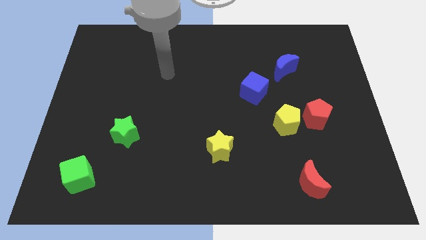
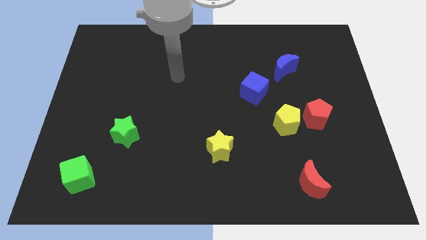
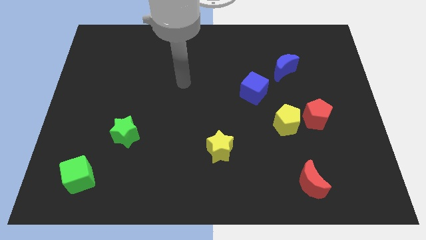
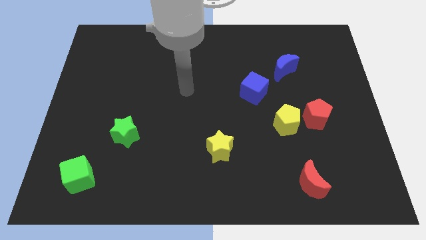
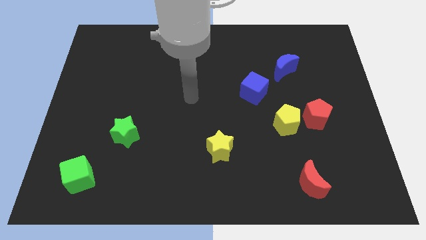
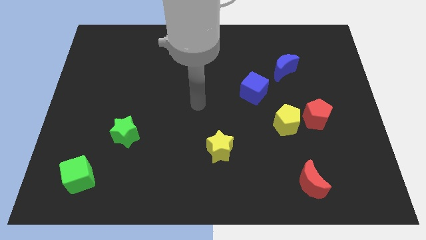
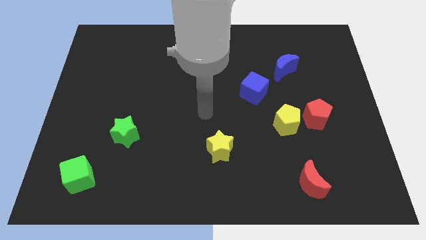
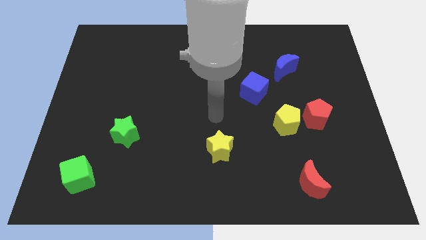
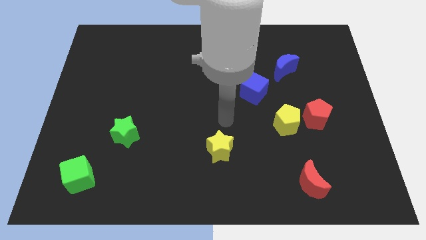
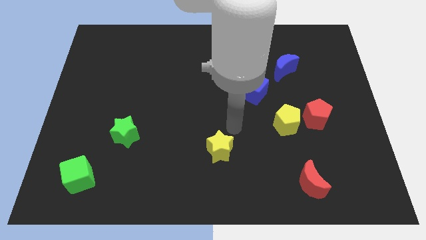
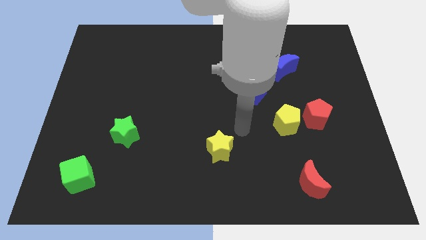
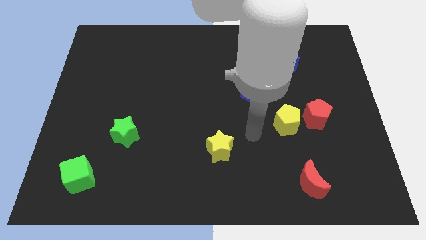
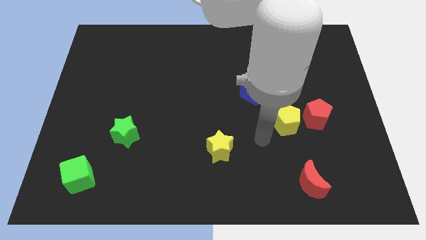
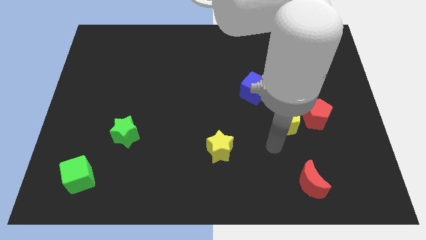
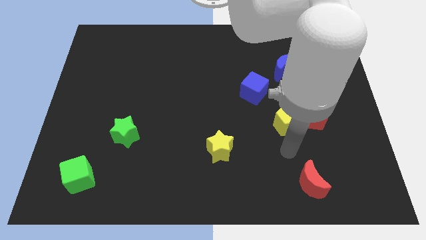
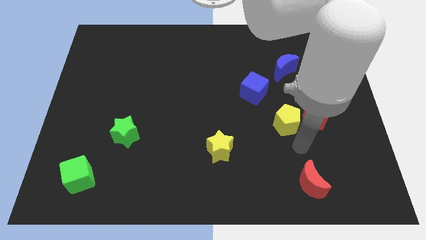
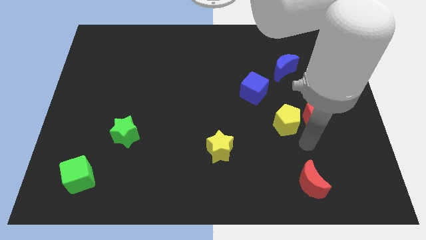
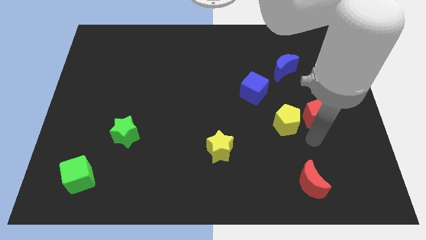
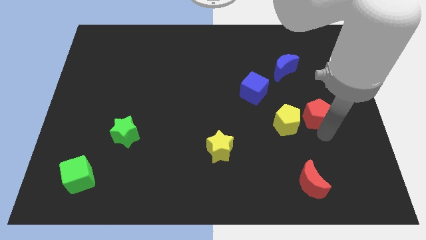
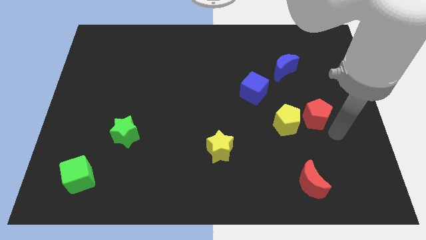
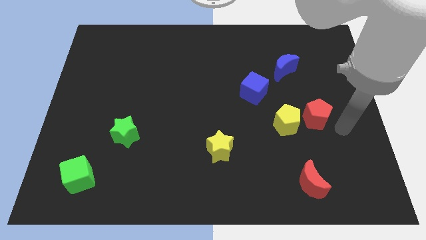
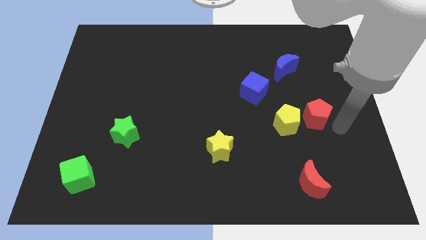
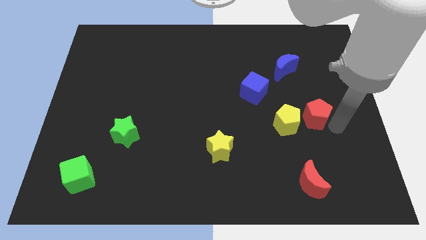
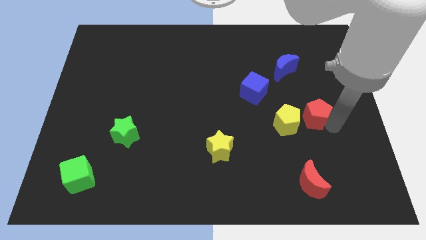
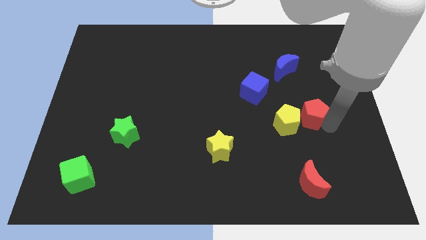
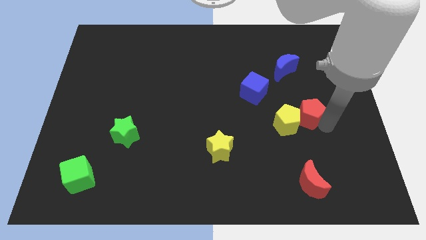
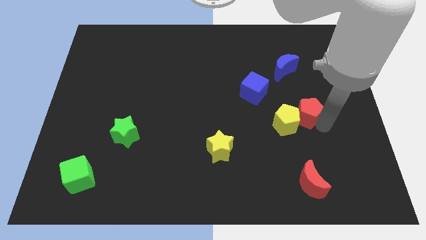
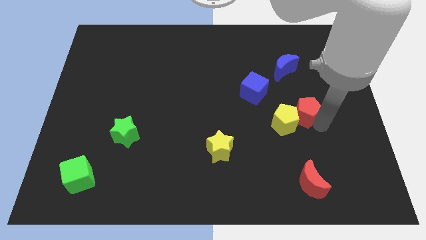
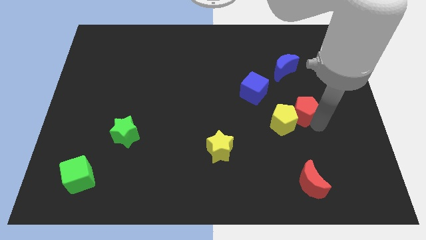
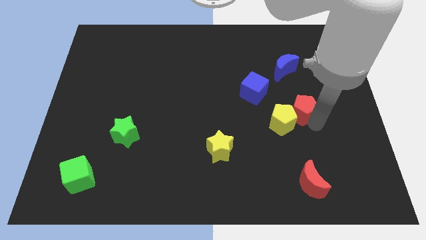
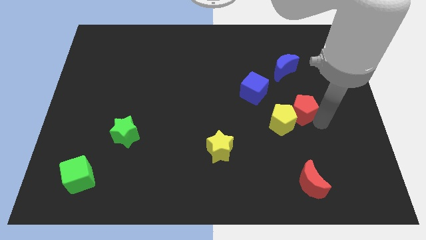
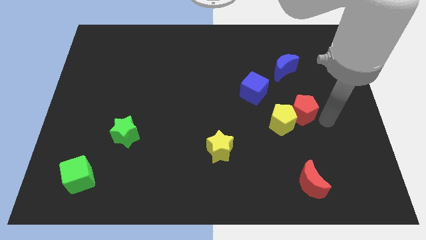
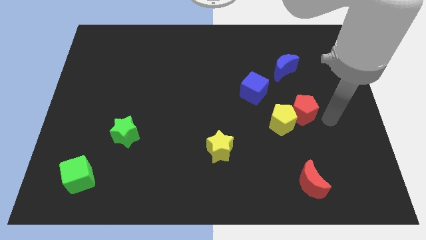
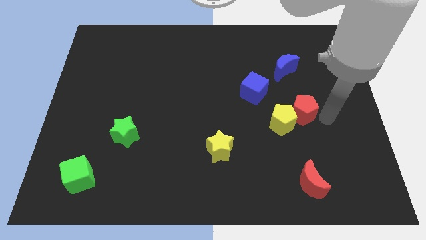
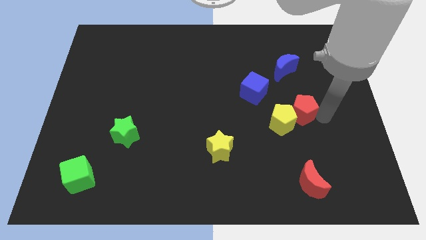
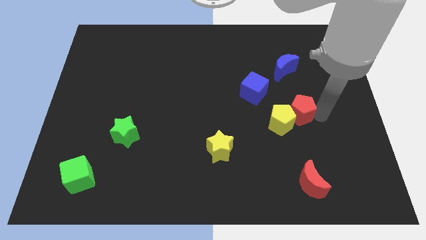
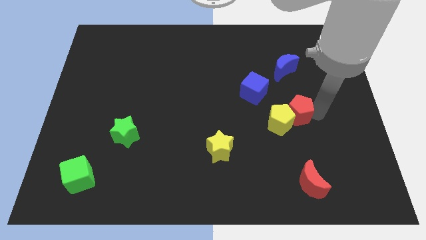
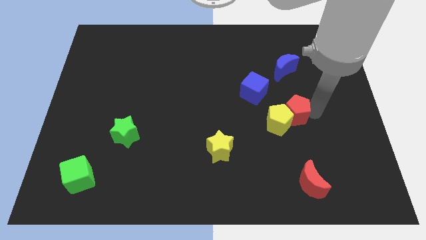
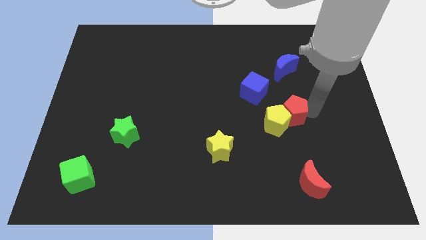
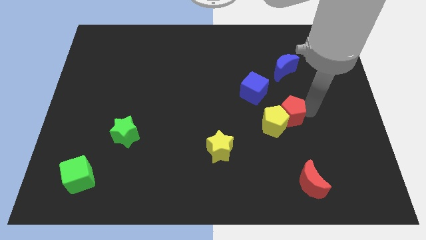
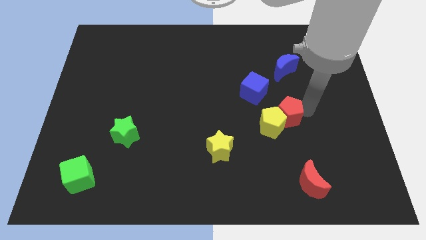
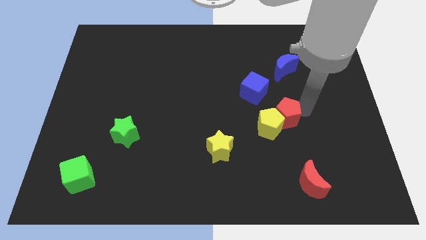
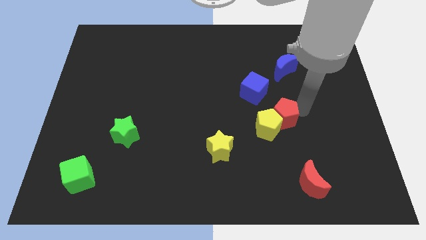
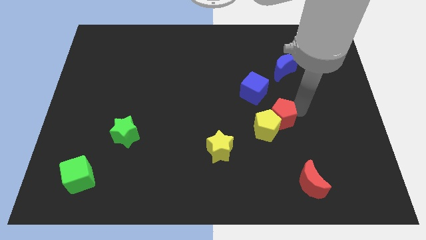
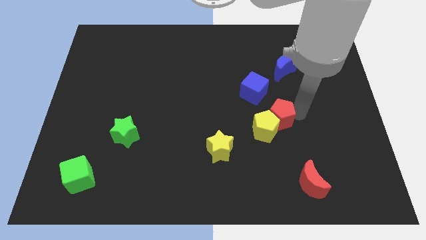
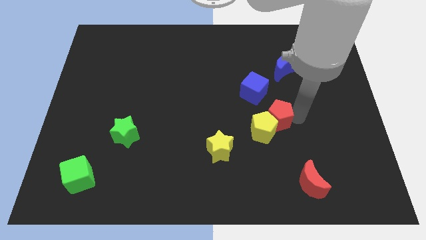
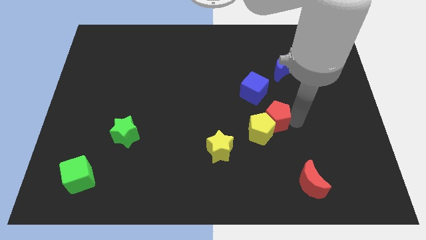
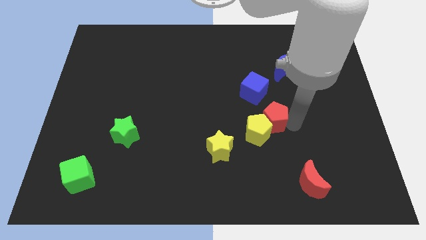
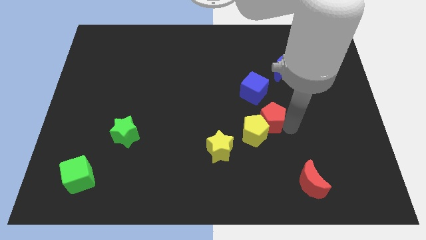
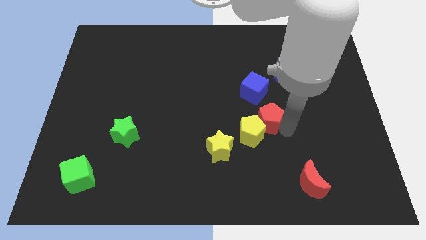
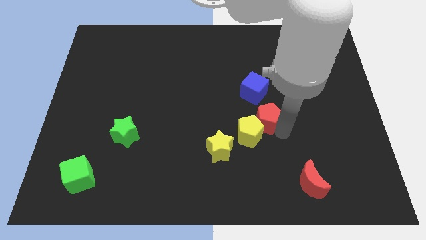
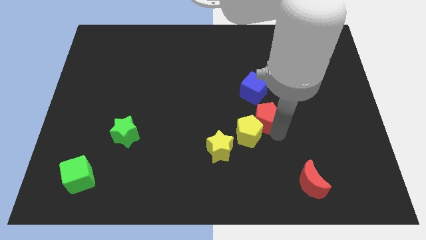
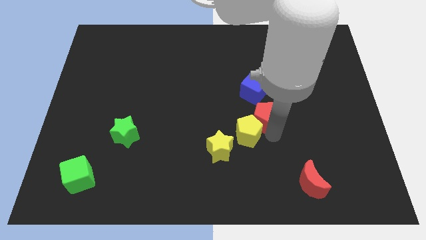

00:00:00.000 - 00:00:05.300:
put the red pentagon to the middle

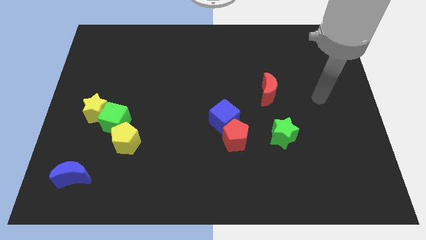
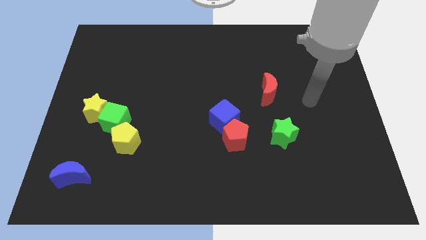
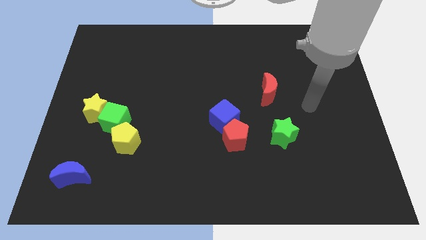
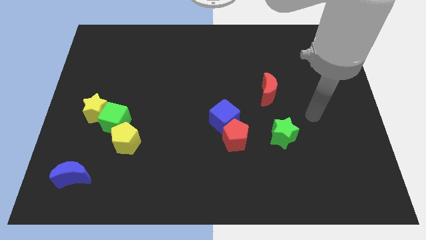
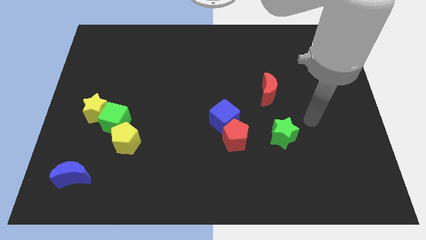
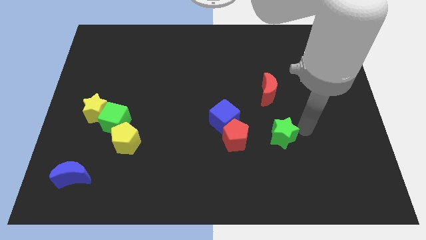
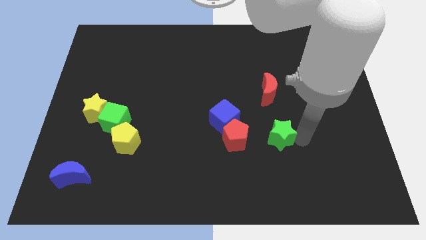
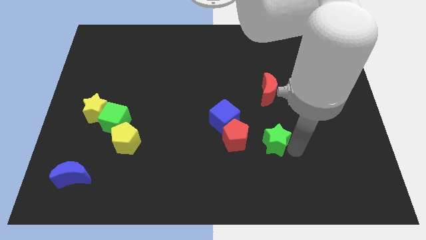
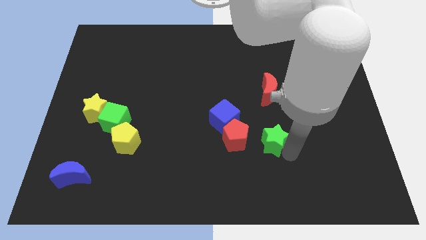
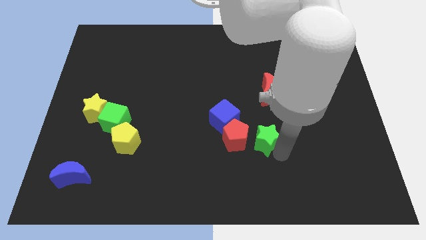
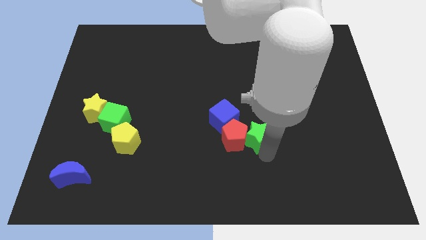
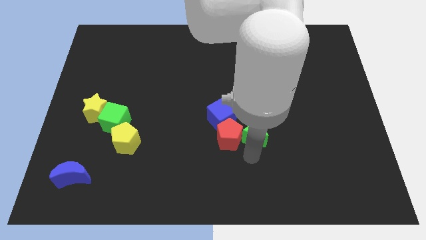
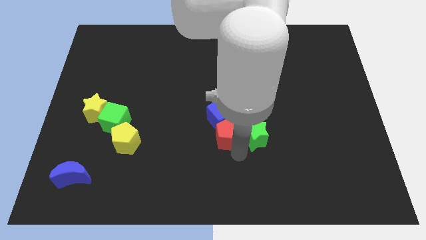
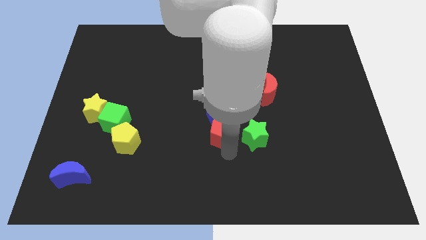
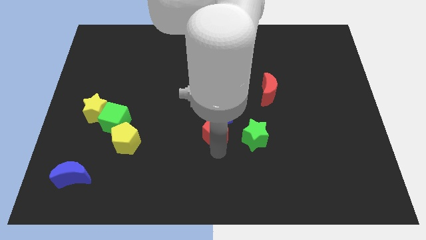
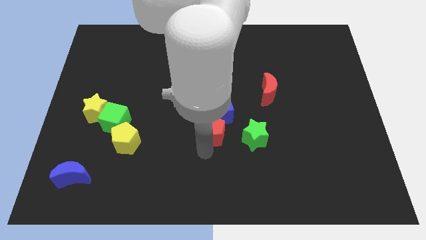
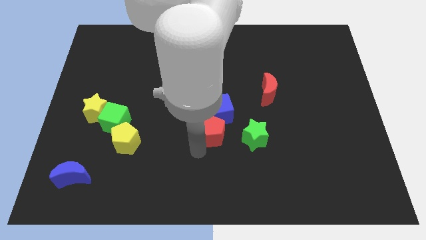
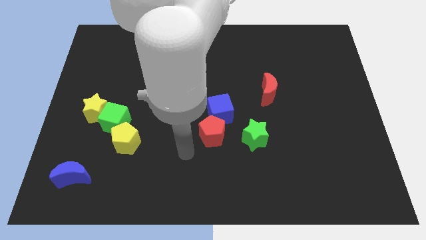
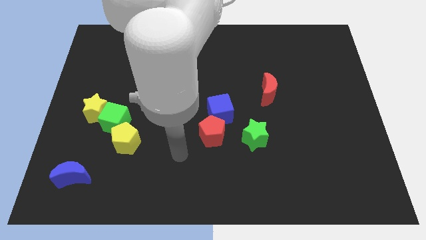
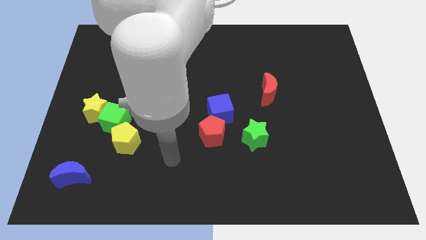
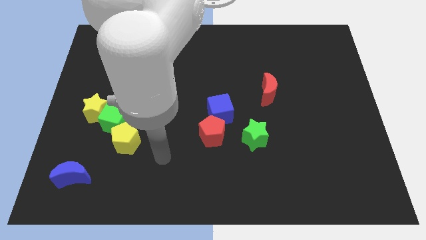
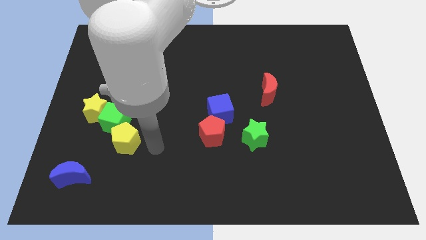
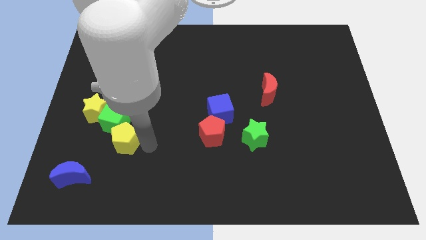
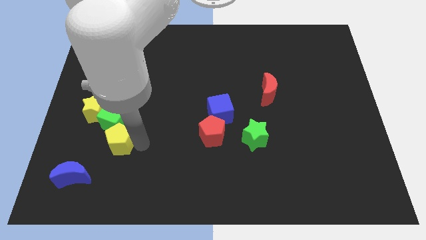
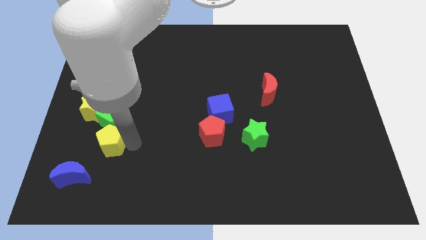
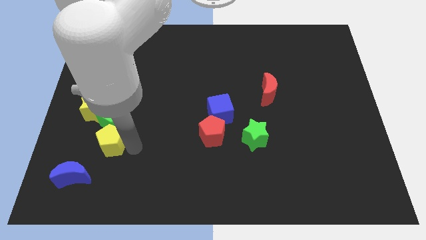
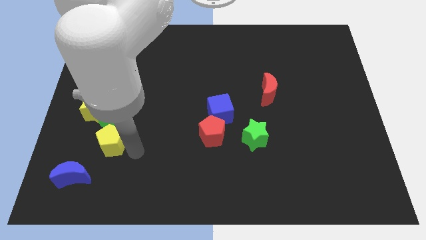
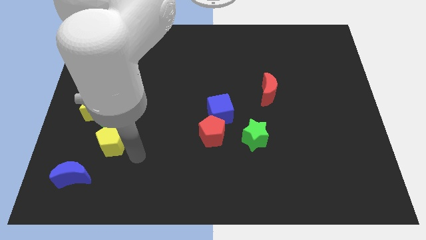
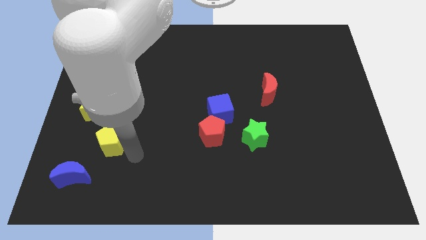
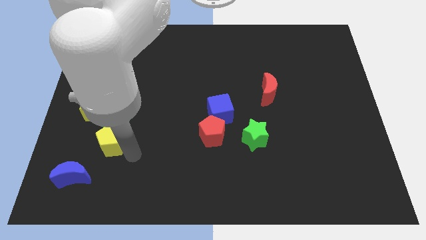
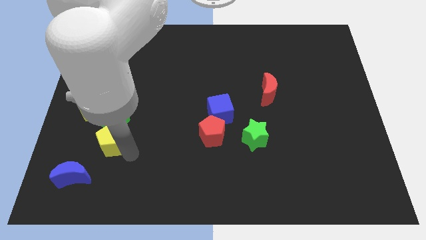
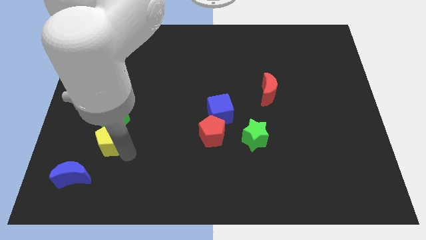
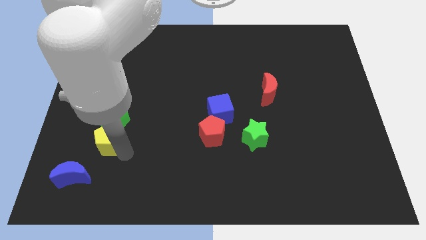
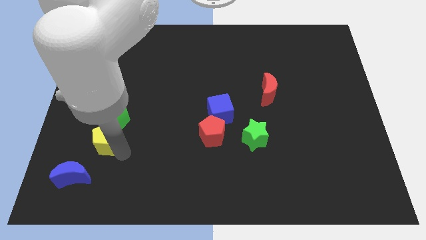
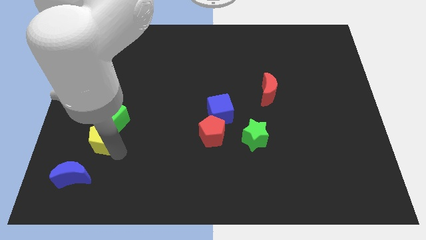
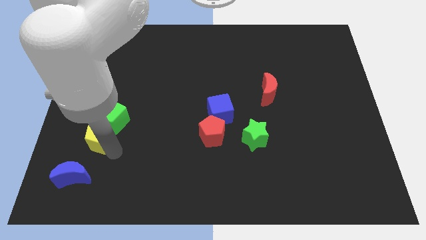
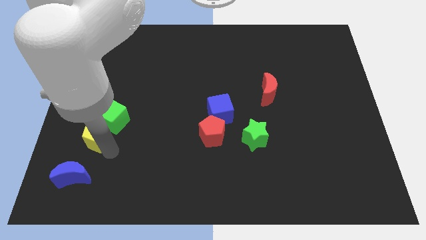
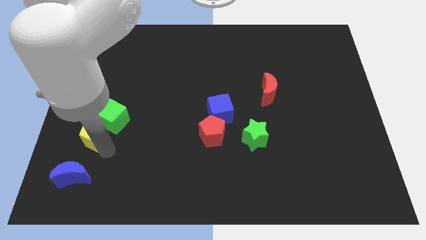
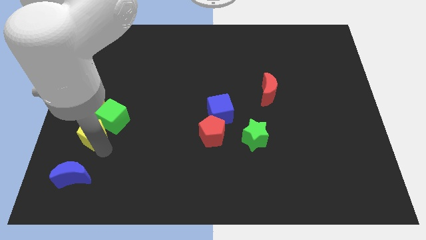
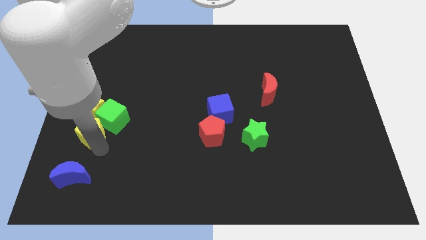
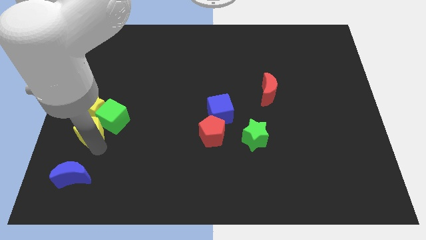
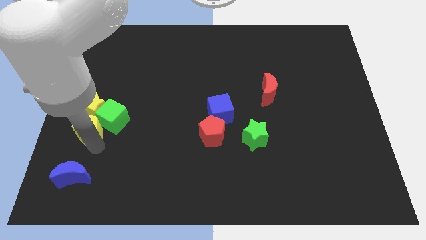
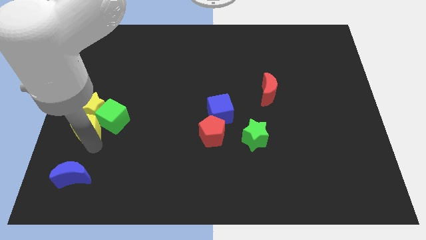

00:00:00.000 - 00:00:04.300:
move the yellow pentagon to the center left
